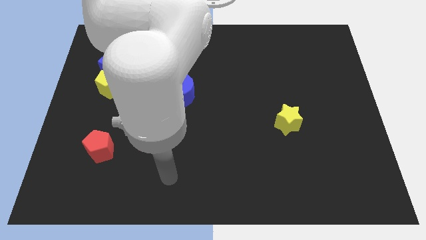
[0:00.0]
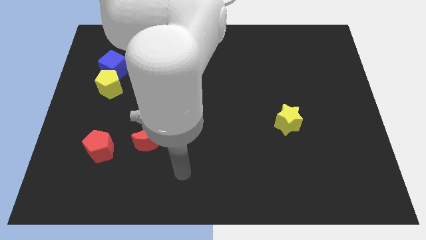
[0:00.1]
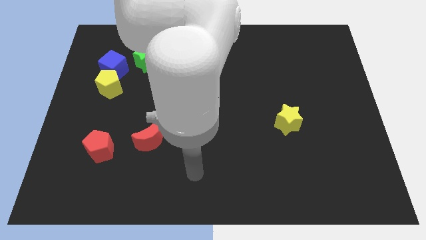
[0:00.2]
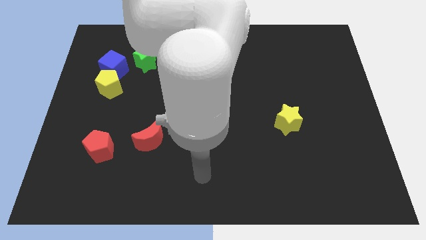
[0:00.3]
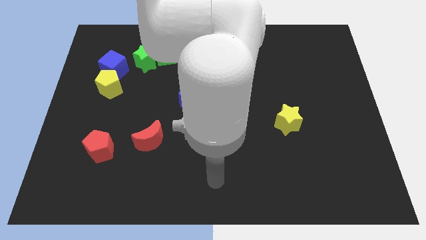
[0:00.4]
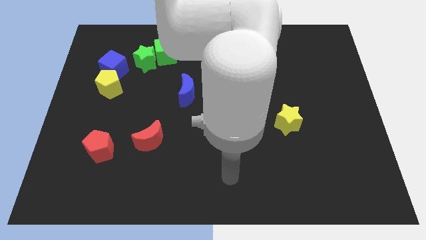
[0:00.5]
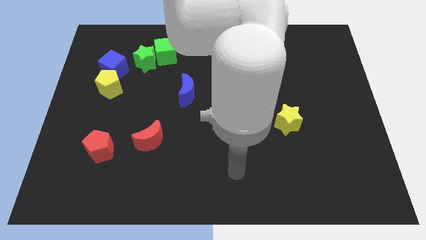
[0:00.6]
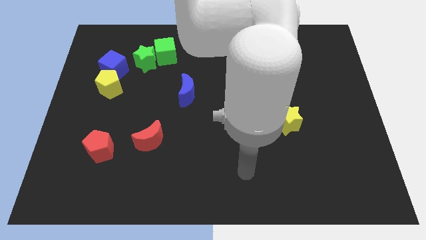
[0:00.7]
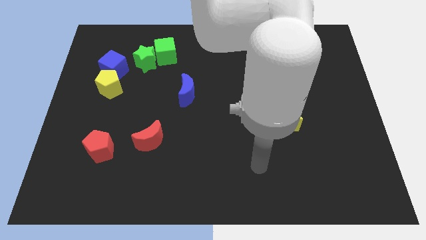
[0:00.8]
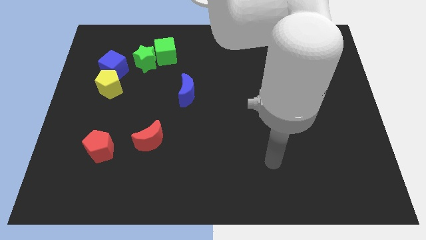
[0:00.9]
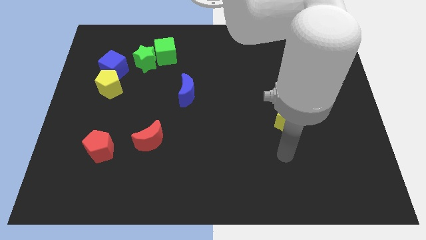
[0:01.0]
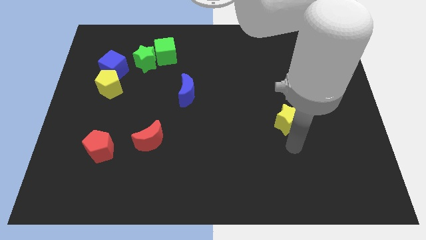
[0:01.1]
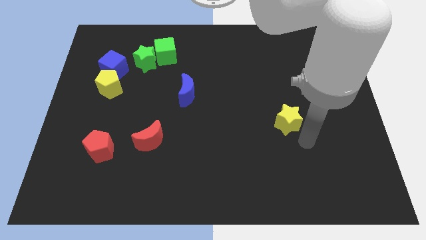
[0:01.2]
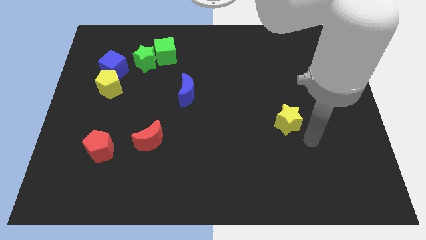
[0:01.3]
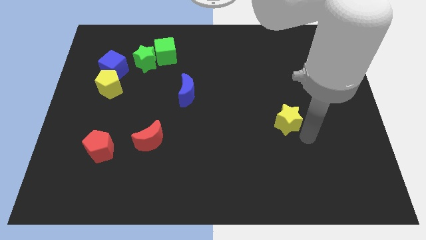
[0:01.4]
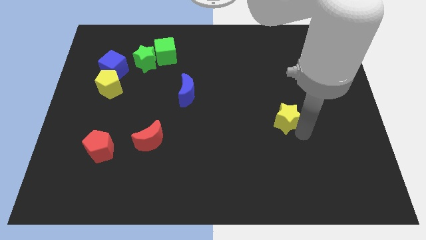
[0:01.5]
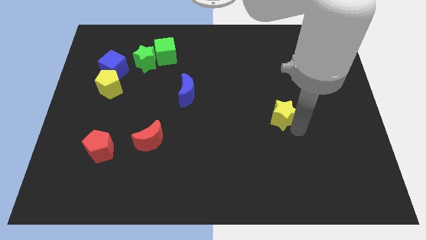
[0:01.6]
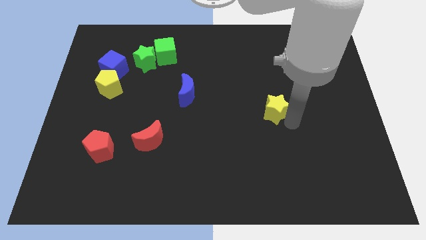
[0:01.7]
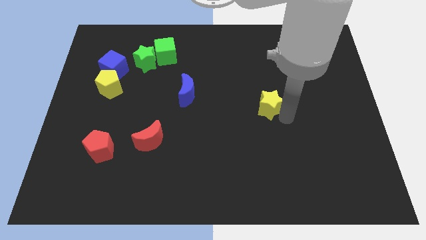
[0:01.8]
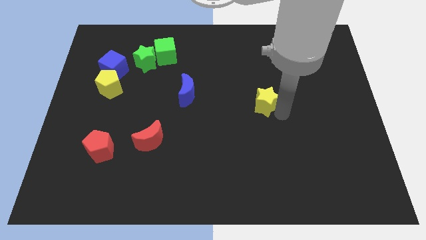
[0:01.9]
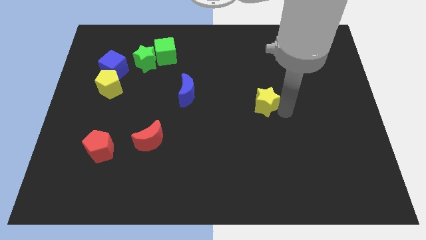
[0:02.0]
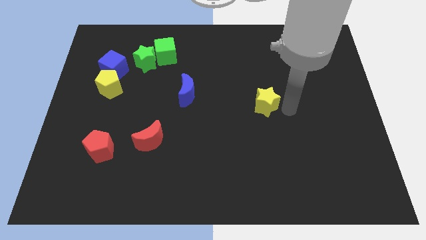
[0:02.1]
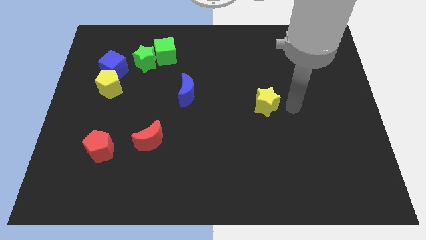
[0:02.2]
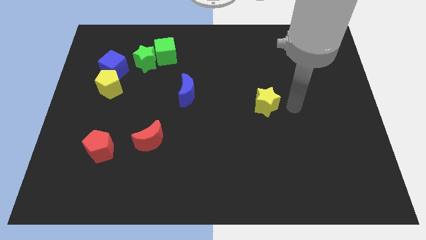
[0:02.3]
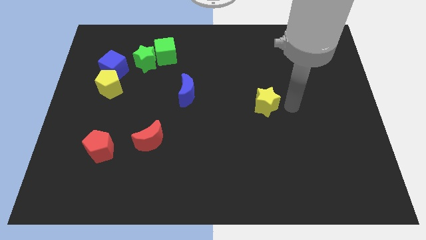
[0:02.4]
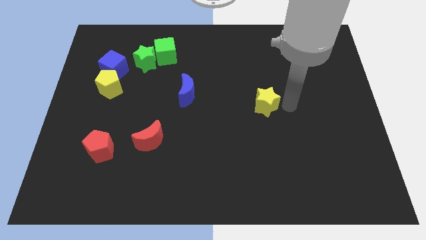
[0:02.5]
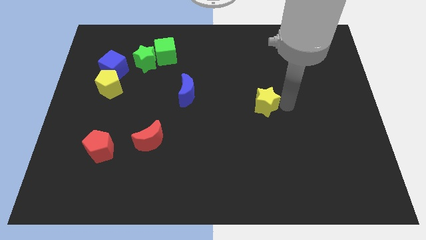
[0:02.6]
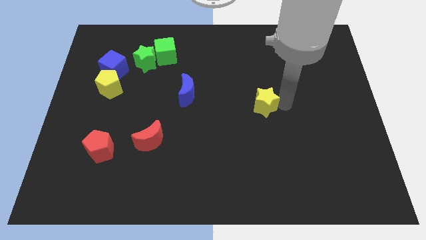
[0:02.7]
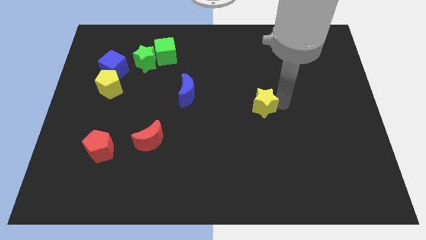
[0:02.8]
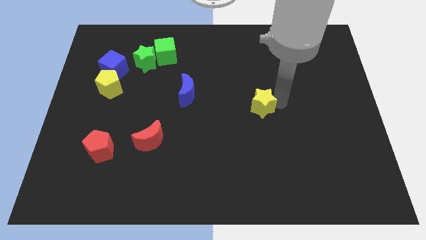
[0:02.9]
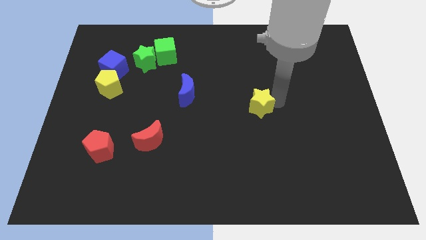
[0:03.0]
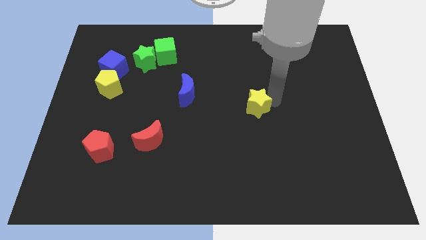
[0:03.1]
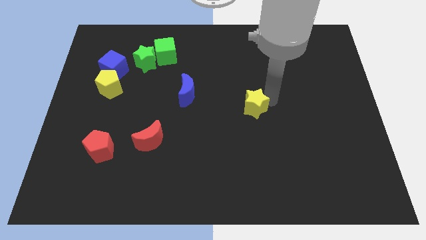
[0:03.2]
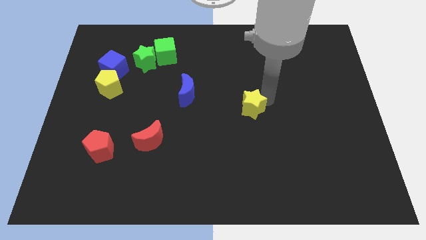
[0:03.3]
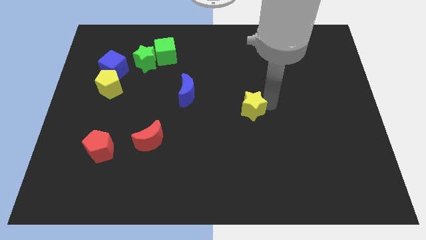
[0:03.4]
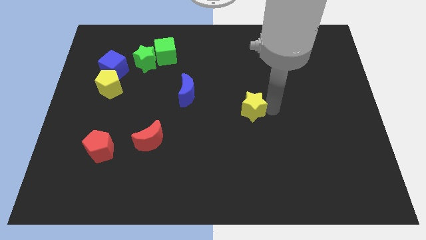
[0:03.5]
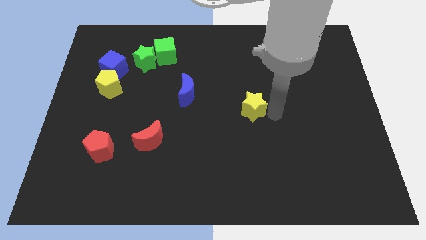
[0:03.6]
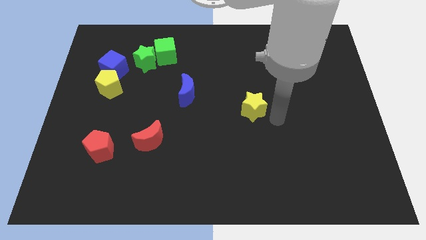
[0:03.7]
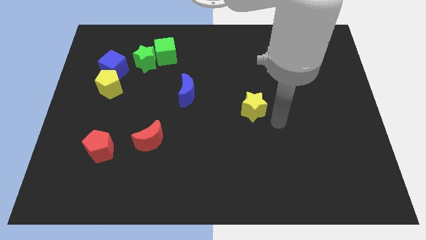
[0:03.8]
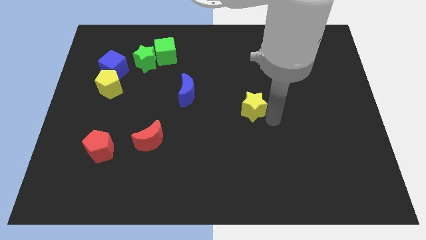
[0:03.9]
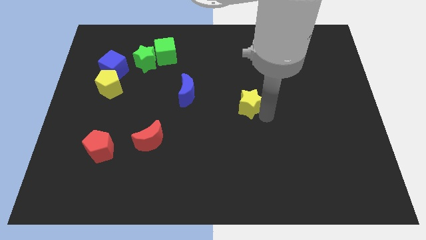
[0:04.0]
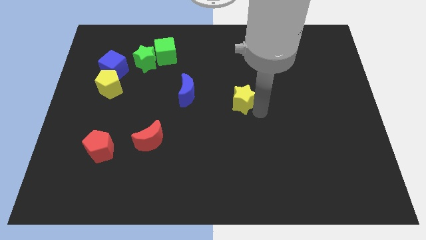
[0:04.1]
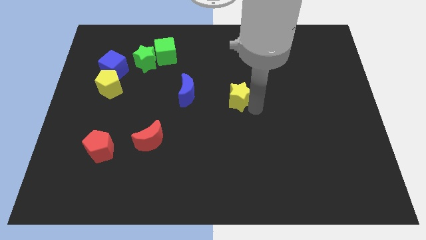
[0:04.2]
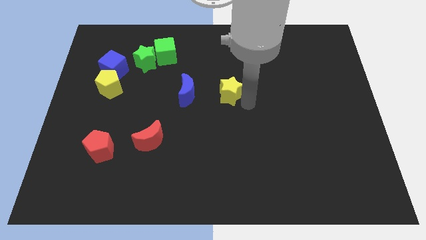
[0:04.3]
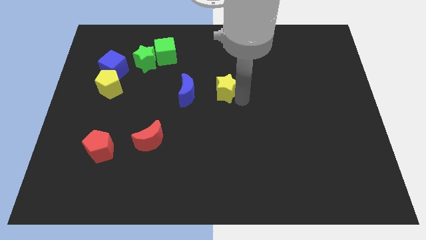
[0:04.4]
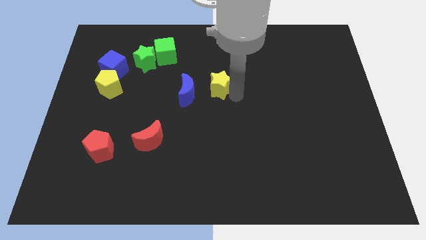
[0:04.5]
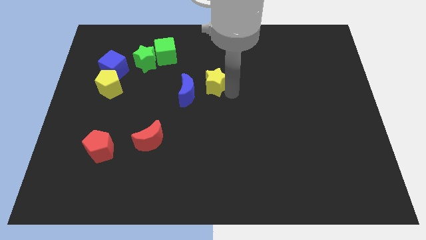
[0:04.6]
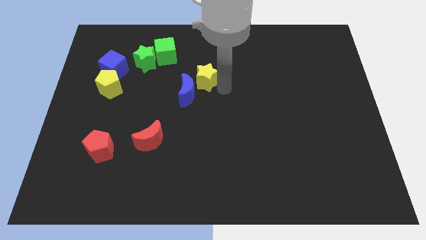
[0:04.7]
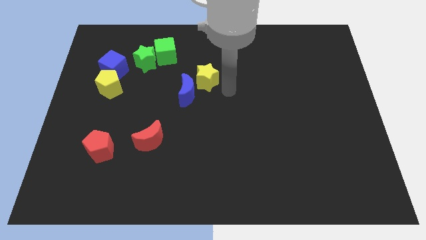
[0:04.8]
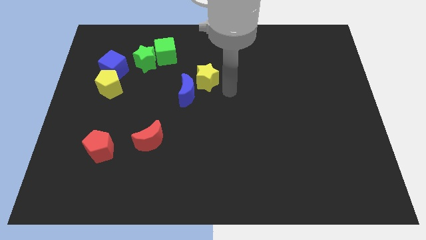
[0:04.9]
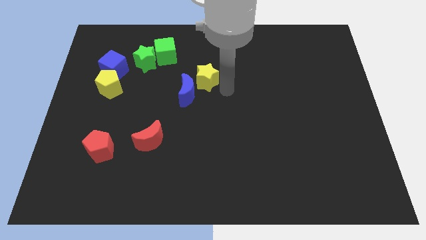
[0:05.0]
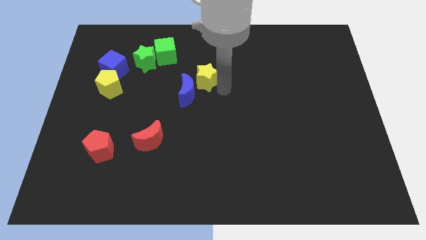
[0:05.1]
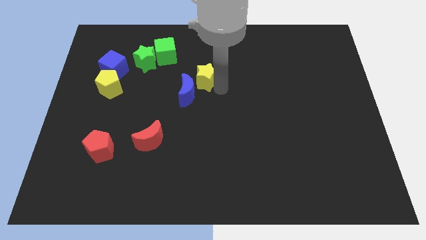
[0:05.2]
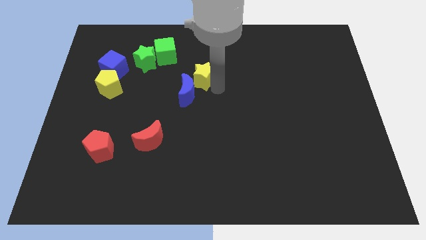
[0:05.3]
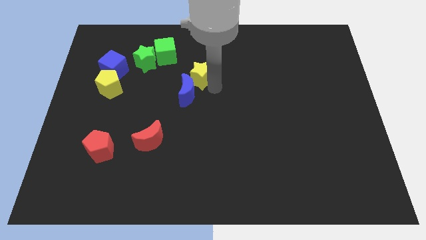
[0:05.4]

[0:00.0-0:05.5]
push the yellow star to the bottom right side of the green cube

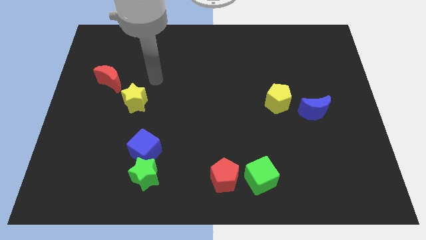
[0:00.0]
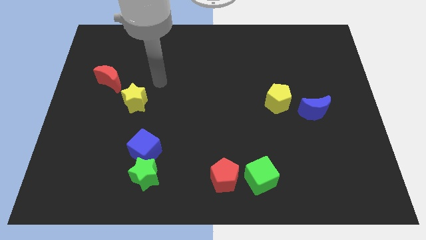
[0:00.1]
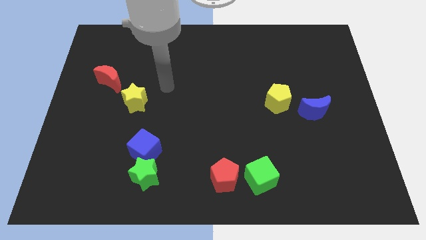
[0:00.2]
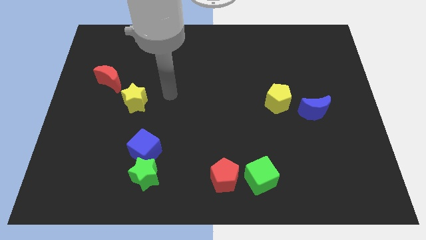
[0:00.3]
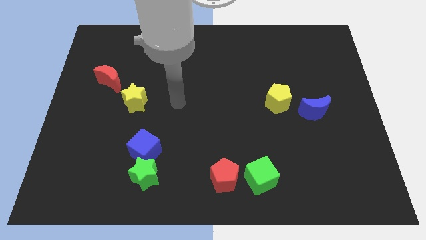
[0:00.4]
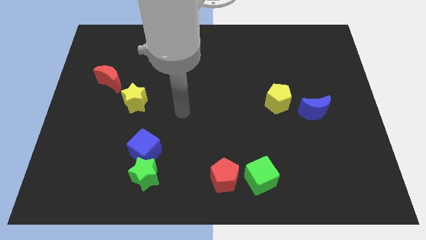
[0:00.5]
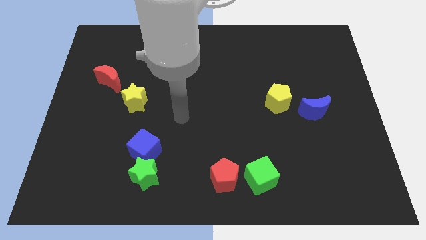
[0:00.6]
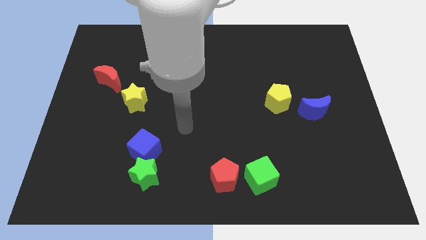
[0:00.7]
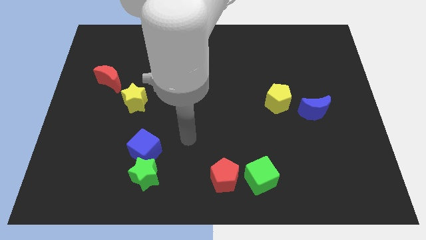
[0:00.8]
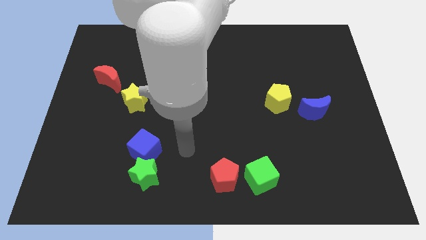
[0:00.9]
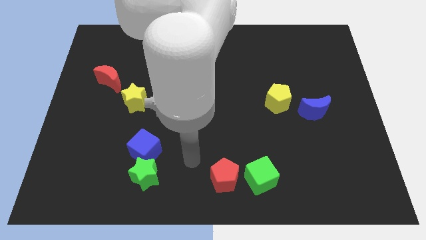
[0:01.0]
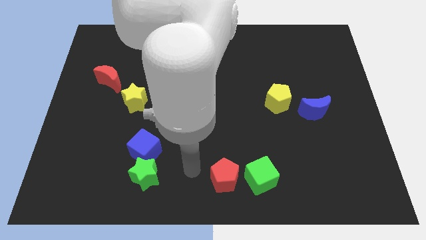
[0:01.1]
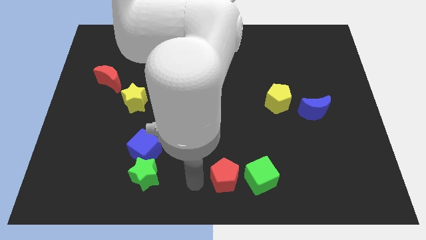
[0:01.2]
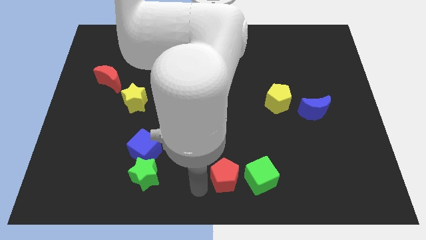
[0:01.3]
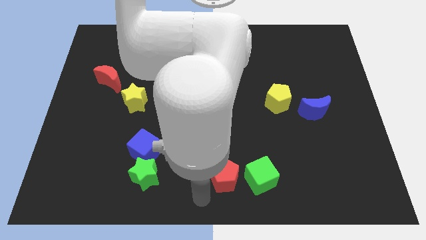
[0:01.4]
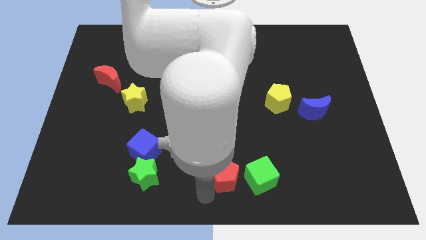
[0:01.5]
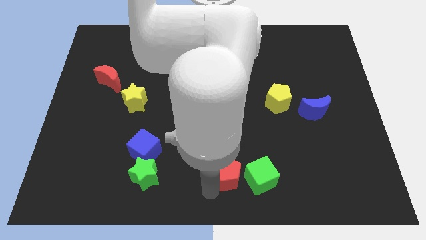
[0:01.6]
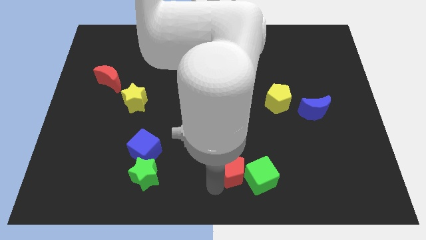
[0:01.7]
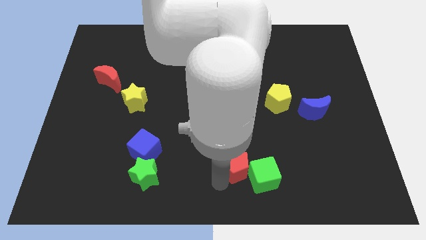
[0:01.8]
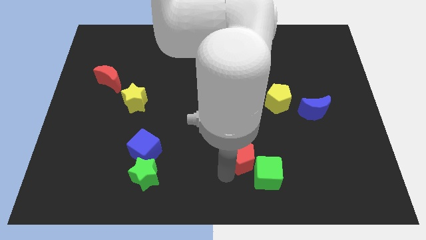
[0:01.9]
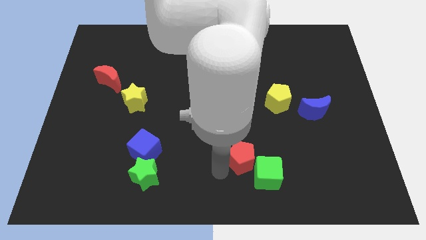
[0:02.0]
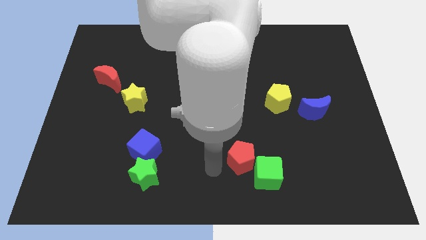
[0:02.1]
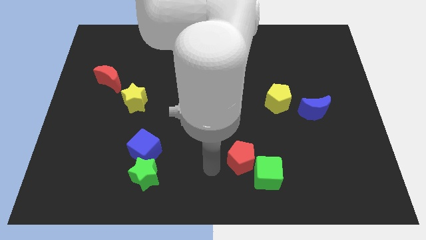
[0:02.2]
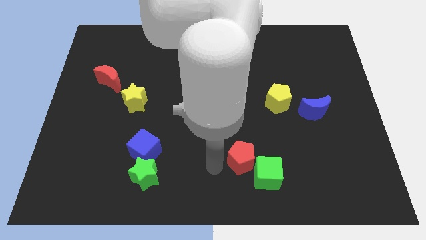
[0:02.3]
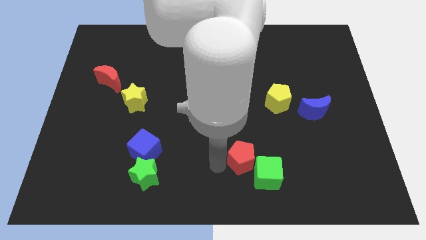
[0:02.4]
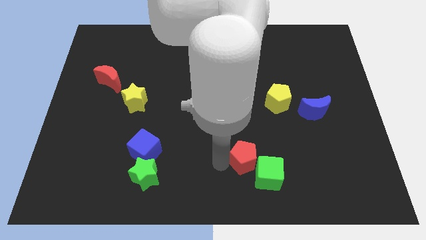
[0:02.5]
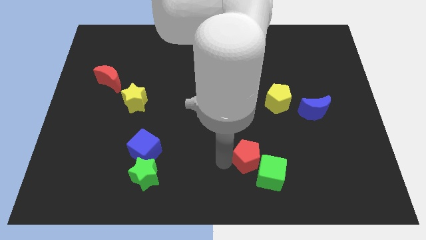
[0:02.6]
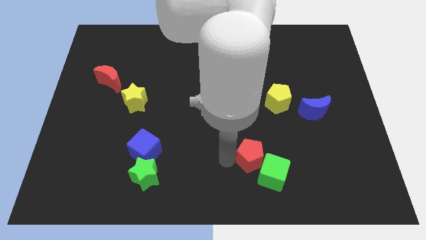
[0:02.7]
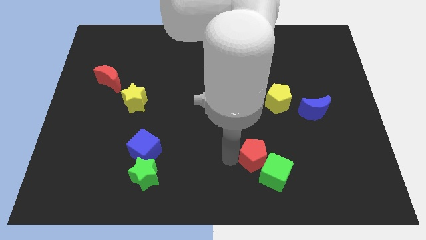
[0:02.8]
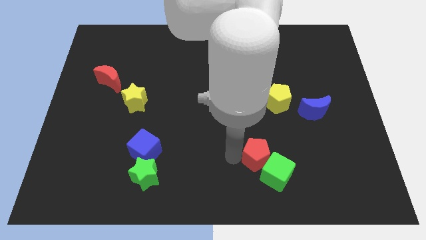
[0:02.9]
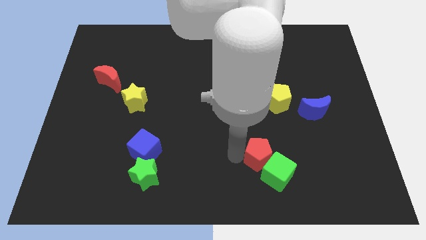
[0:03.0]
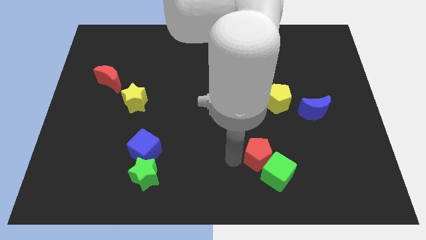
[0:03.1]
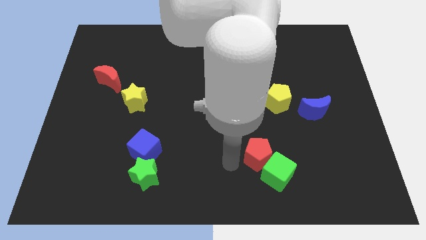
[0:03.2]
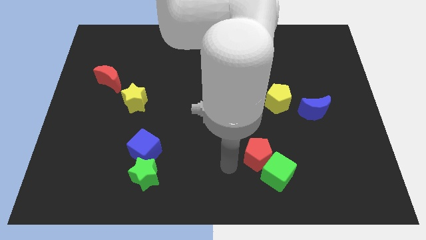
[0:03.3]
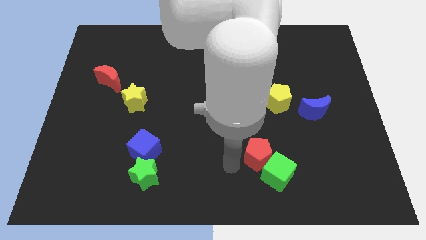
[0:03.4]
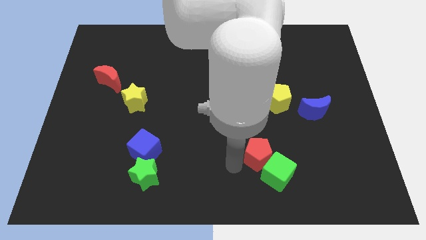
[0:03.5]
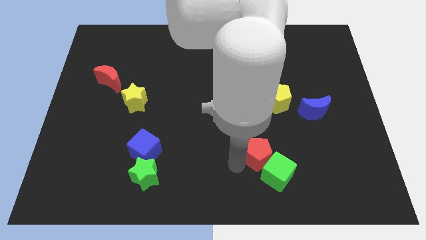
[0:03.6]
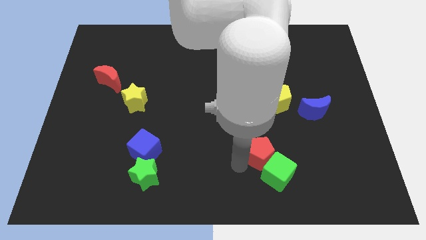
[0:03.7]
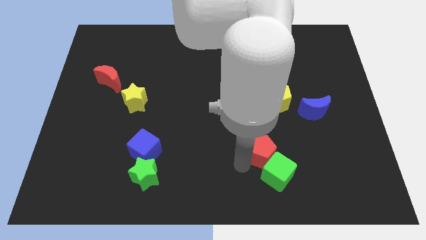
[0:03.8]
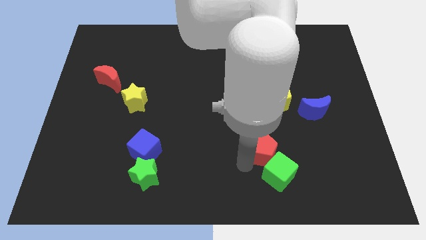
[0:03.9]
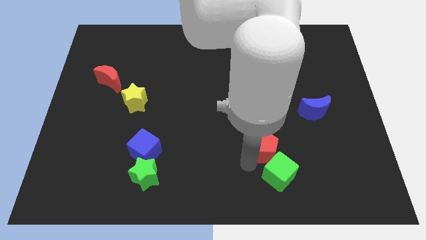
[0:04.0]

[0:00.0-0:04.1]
slide the red pentagon below the yellow pentagon
